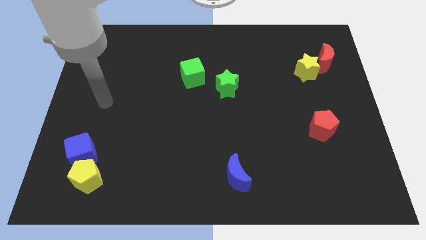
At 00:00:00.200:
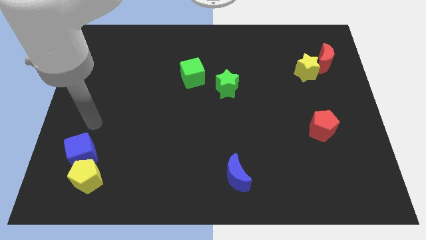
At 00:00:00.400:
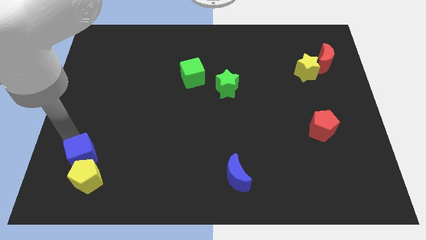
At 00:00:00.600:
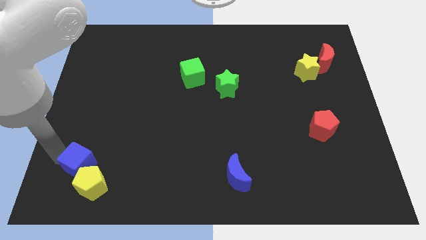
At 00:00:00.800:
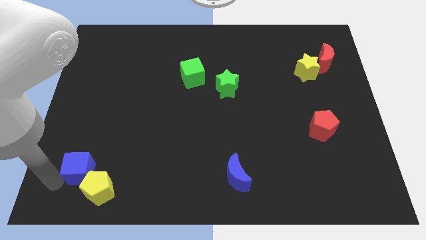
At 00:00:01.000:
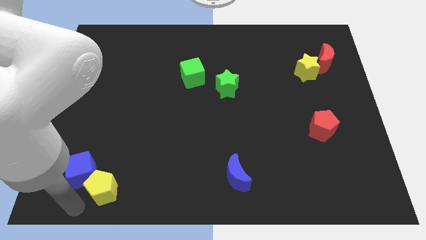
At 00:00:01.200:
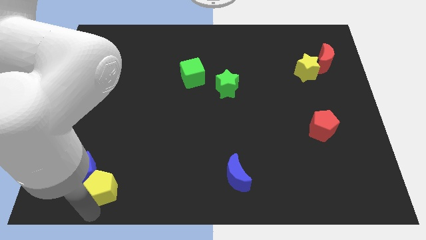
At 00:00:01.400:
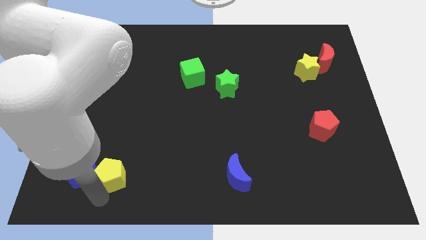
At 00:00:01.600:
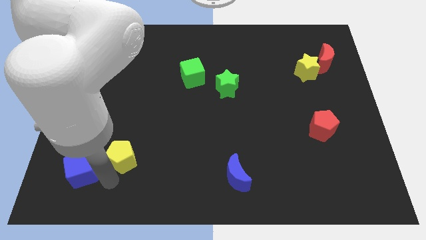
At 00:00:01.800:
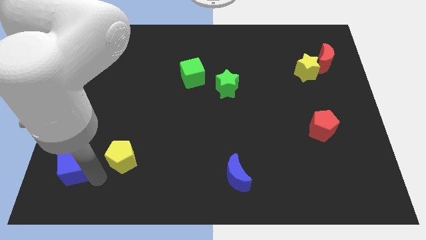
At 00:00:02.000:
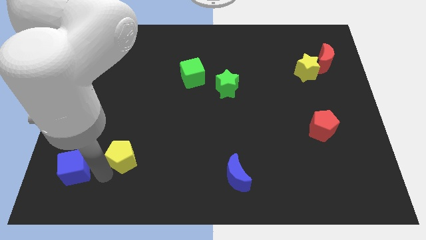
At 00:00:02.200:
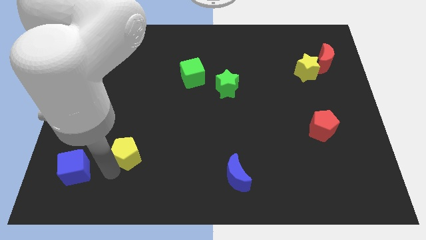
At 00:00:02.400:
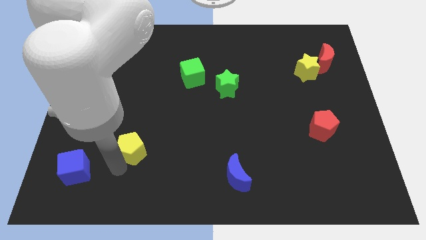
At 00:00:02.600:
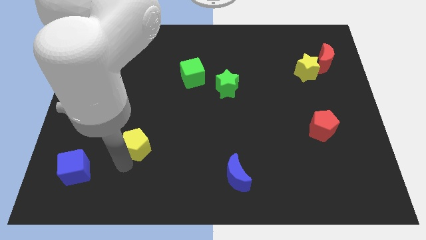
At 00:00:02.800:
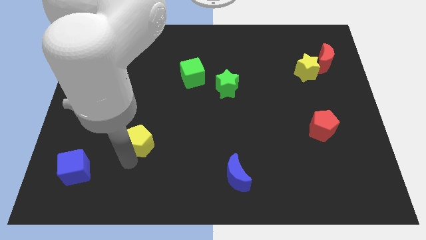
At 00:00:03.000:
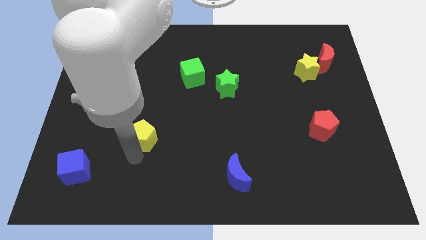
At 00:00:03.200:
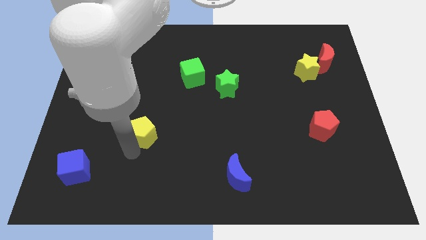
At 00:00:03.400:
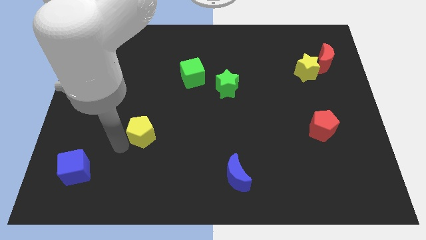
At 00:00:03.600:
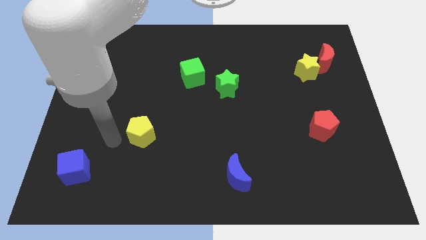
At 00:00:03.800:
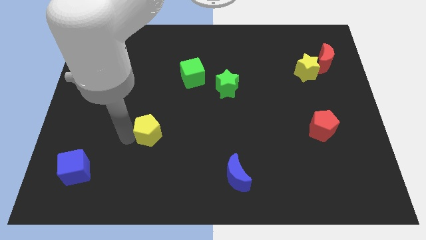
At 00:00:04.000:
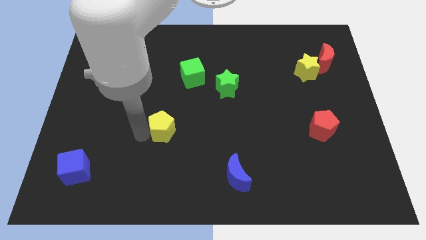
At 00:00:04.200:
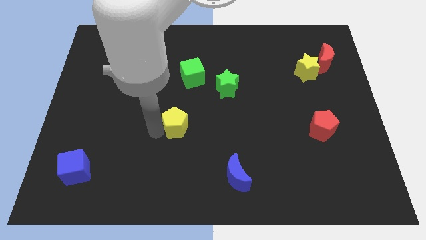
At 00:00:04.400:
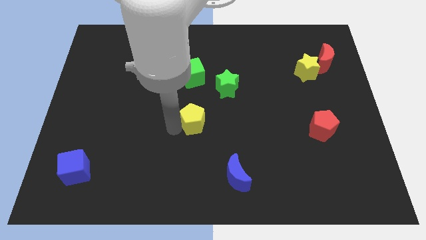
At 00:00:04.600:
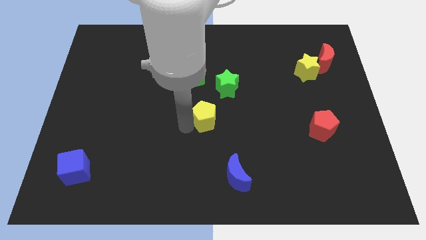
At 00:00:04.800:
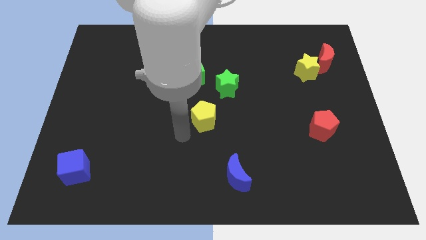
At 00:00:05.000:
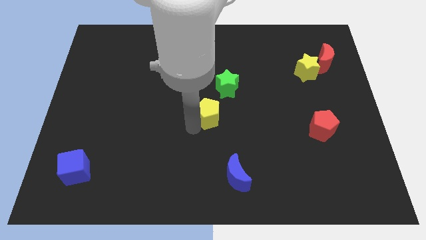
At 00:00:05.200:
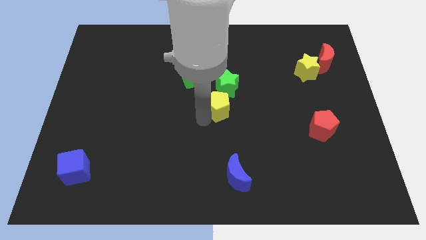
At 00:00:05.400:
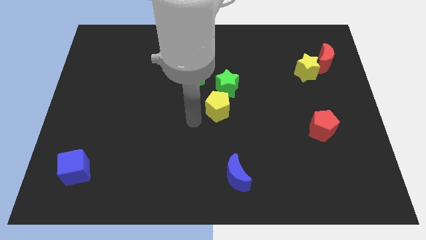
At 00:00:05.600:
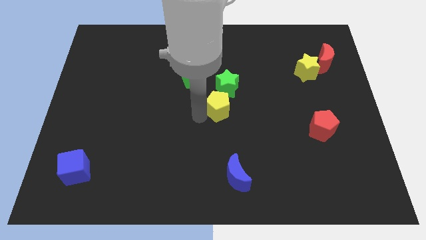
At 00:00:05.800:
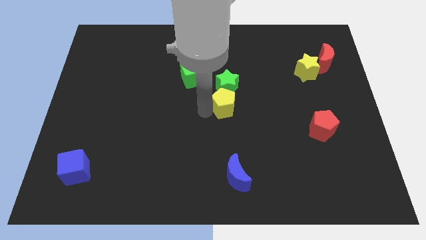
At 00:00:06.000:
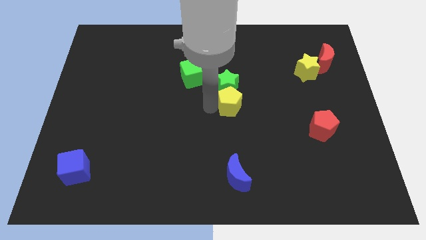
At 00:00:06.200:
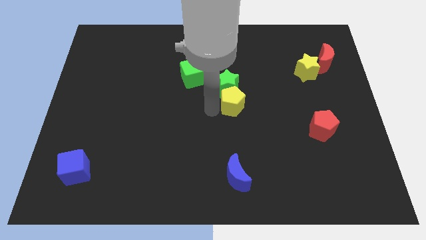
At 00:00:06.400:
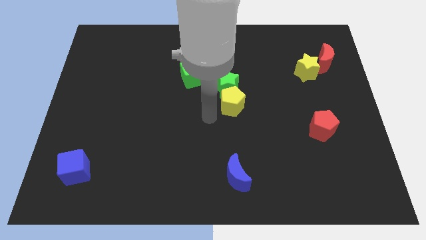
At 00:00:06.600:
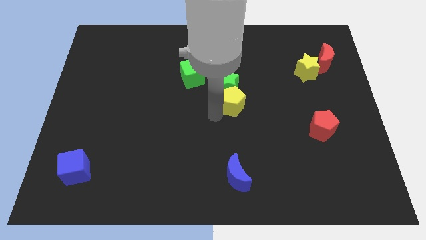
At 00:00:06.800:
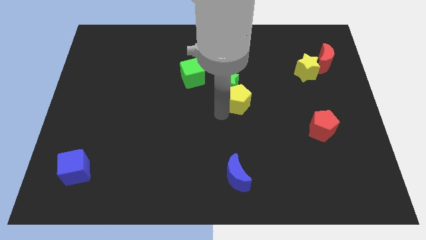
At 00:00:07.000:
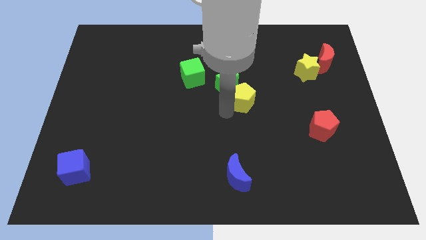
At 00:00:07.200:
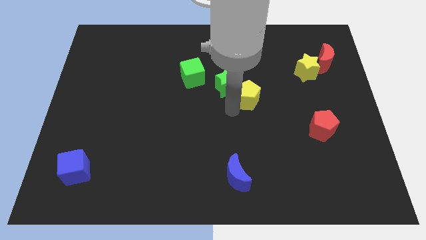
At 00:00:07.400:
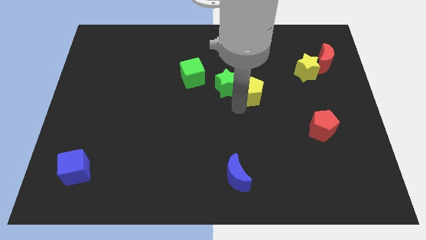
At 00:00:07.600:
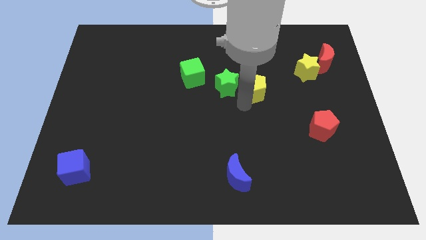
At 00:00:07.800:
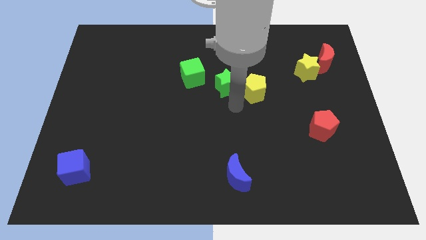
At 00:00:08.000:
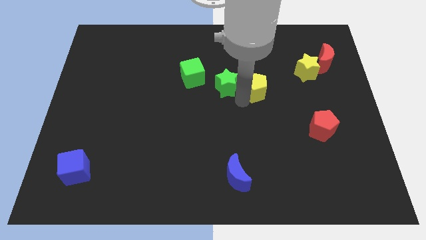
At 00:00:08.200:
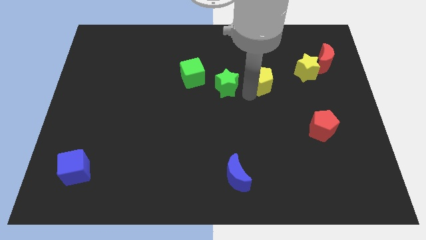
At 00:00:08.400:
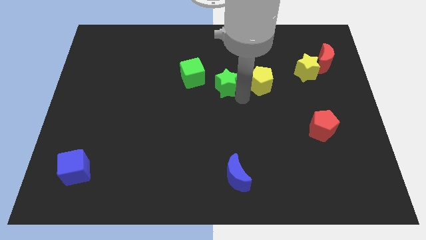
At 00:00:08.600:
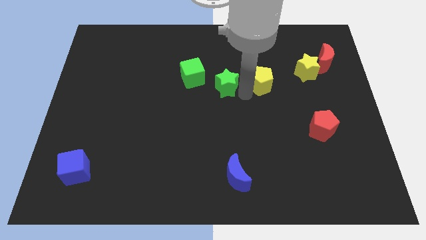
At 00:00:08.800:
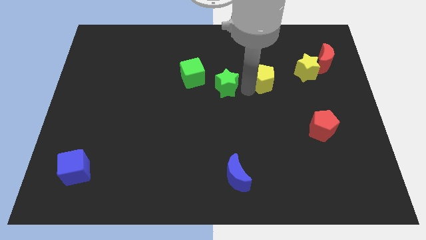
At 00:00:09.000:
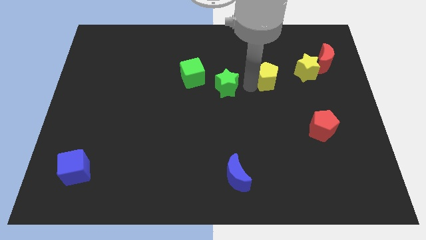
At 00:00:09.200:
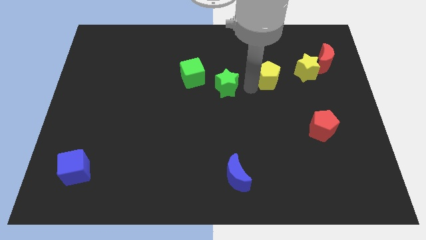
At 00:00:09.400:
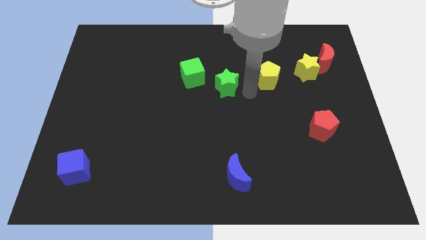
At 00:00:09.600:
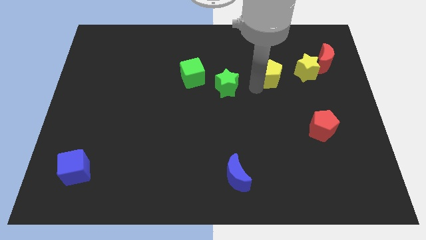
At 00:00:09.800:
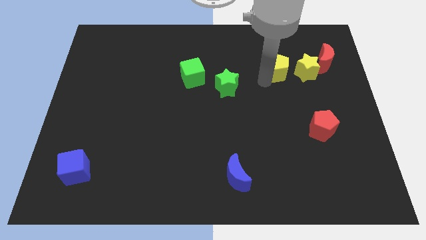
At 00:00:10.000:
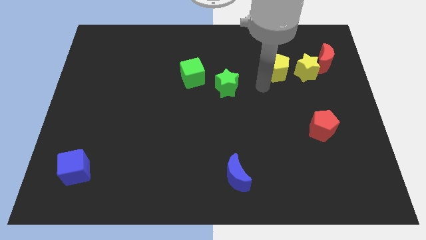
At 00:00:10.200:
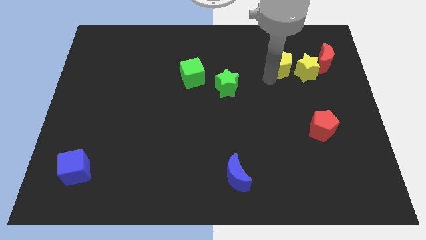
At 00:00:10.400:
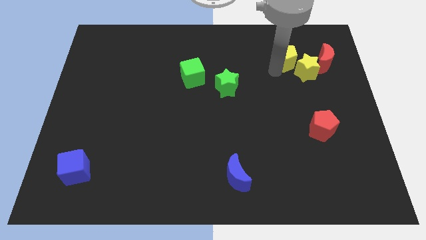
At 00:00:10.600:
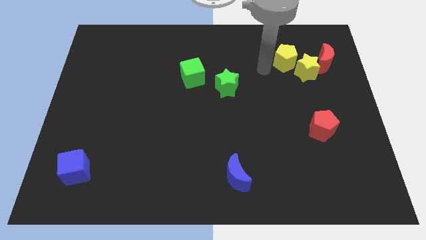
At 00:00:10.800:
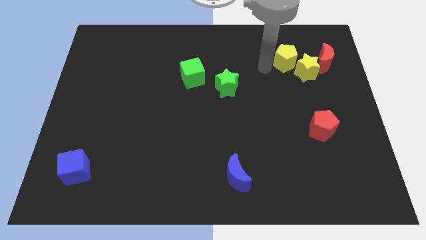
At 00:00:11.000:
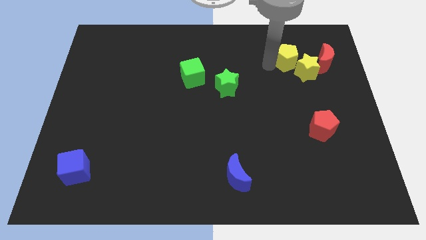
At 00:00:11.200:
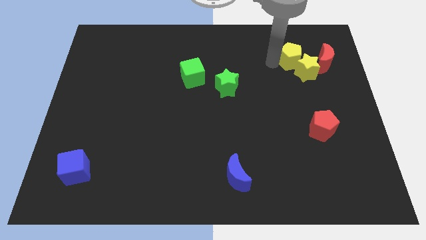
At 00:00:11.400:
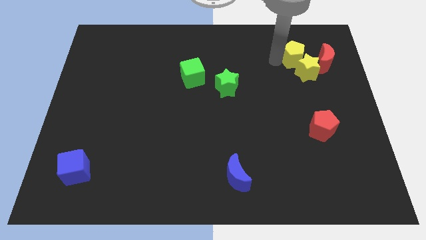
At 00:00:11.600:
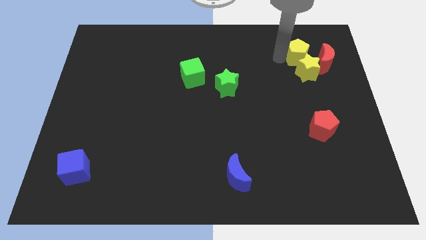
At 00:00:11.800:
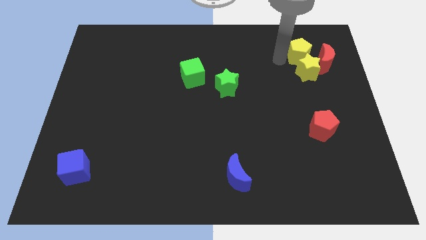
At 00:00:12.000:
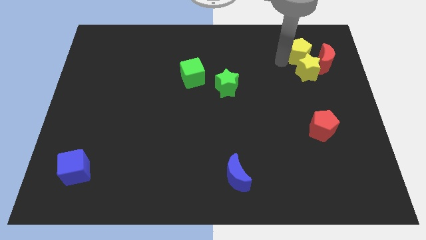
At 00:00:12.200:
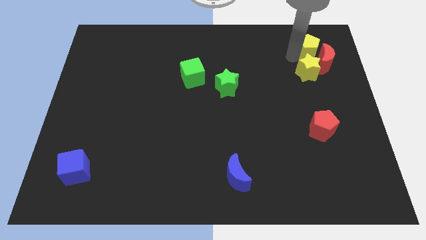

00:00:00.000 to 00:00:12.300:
push the yellow pentagon diagonally up and to the right of the yellow star

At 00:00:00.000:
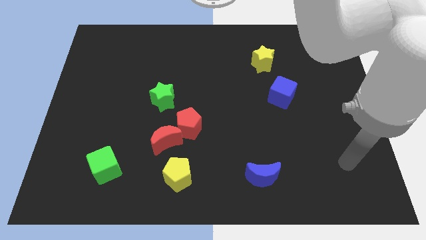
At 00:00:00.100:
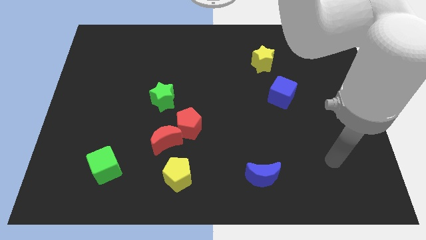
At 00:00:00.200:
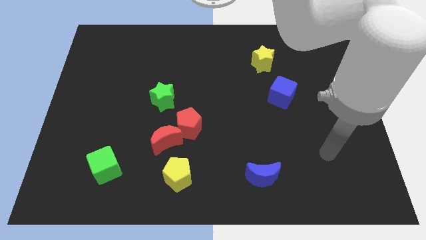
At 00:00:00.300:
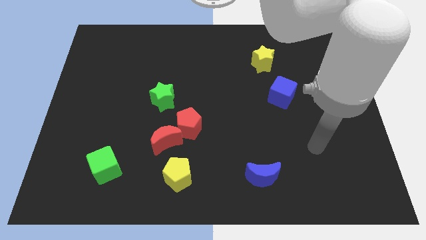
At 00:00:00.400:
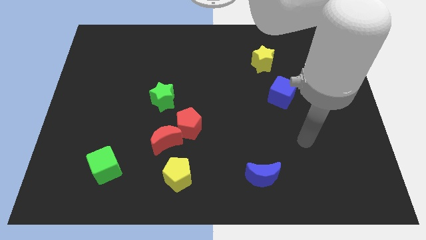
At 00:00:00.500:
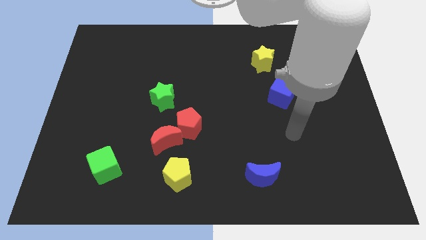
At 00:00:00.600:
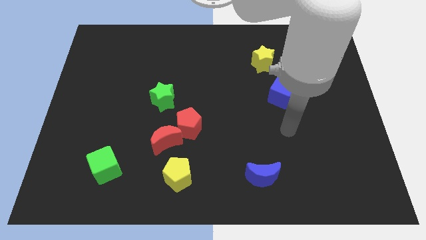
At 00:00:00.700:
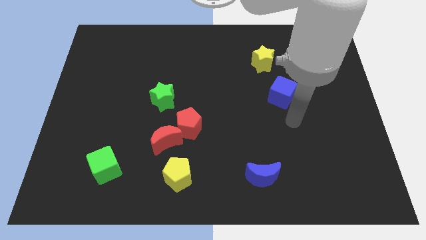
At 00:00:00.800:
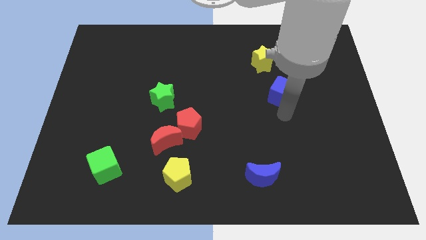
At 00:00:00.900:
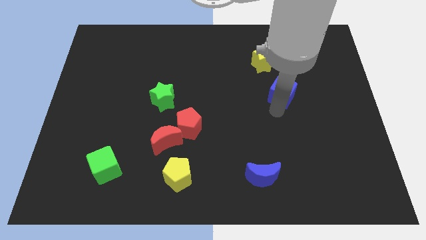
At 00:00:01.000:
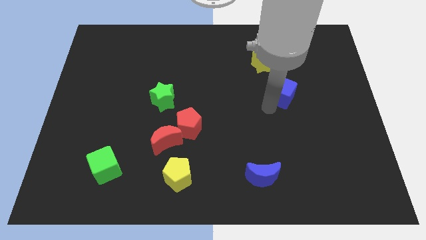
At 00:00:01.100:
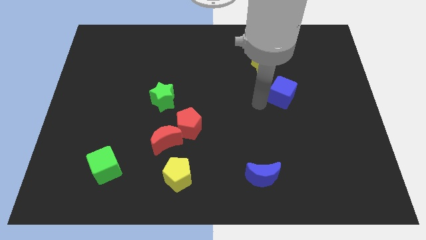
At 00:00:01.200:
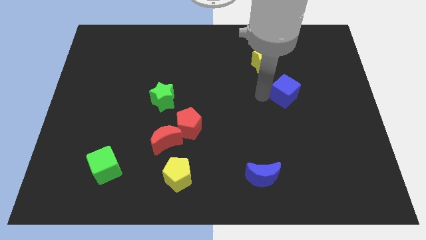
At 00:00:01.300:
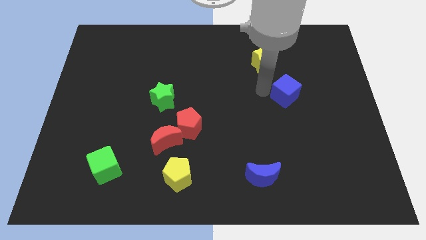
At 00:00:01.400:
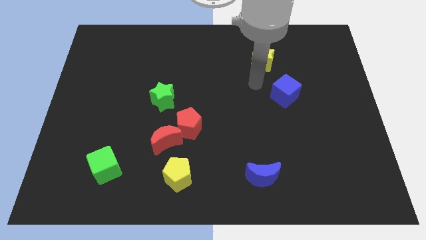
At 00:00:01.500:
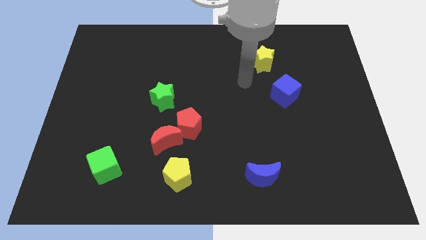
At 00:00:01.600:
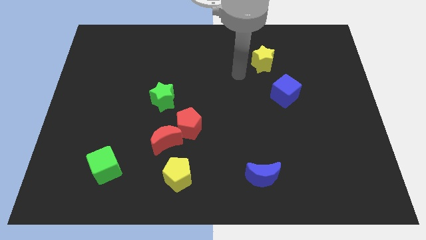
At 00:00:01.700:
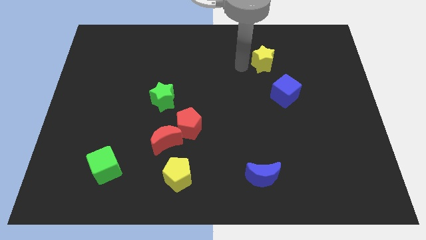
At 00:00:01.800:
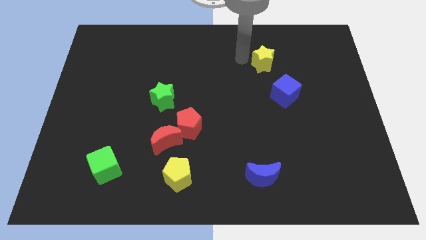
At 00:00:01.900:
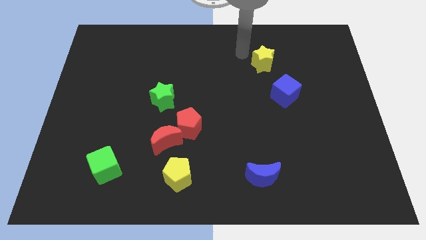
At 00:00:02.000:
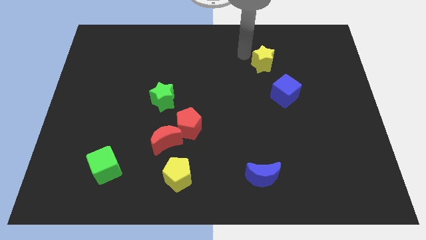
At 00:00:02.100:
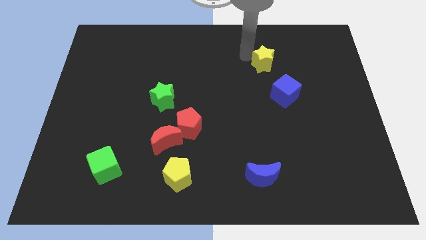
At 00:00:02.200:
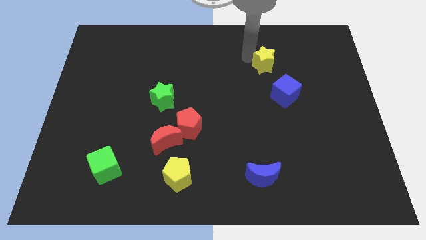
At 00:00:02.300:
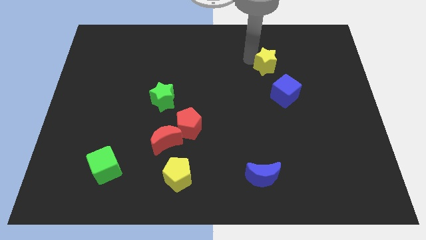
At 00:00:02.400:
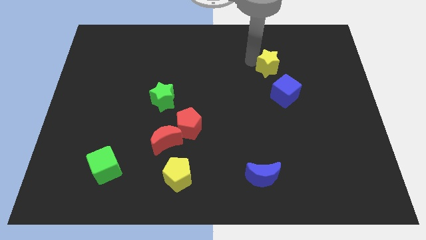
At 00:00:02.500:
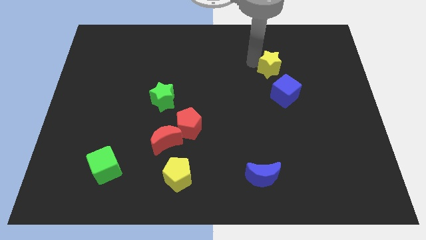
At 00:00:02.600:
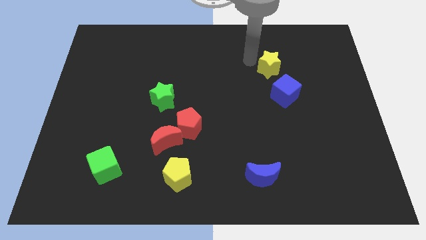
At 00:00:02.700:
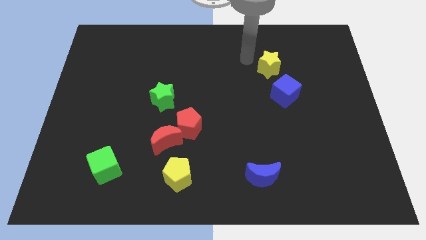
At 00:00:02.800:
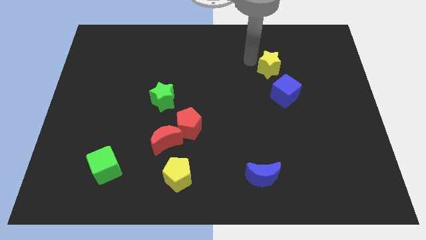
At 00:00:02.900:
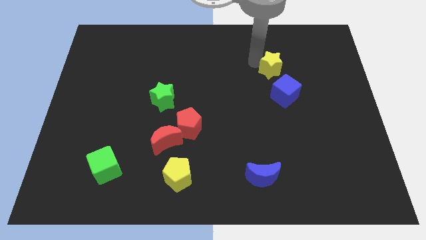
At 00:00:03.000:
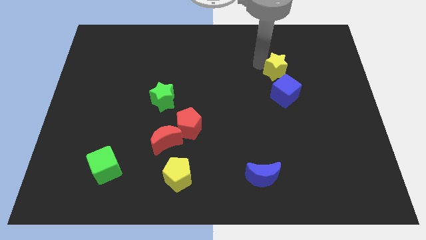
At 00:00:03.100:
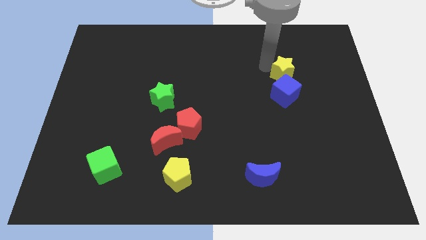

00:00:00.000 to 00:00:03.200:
push the yellow star to the top right side of the blue cube
